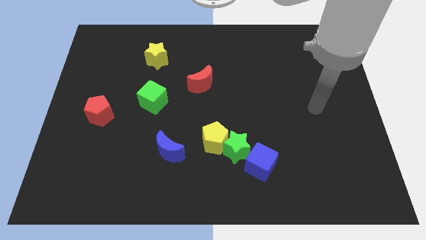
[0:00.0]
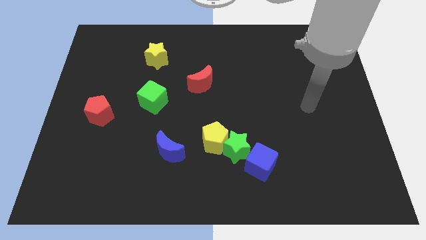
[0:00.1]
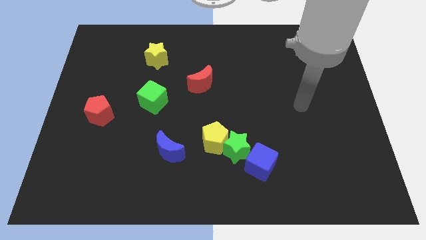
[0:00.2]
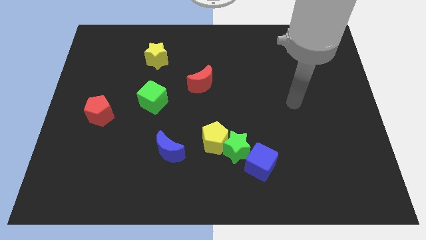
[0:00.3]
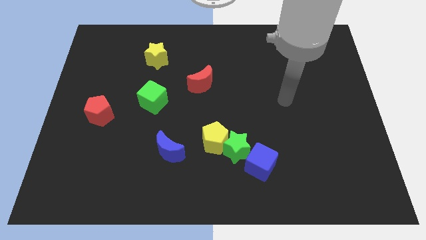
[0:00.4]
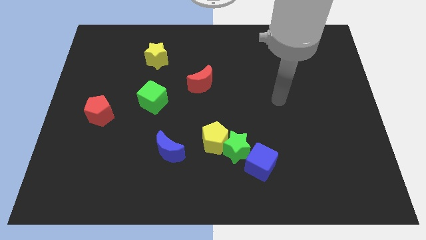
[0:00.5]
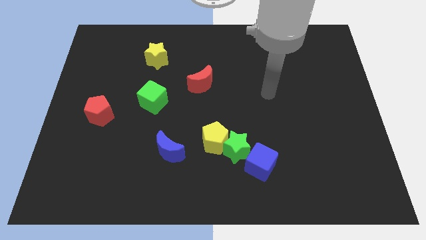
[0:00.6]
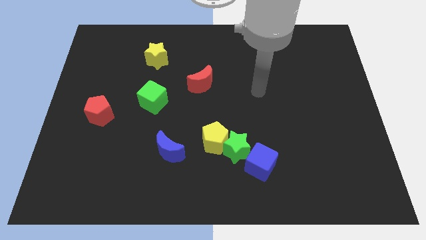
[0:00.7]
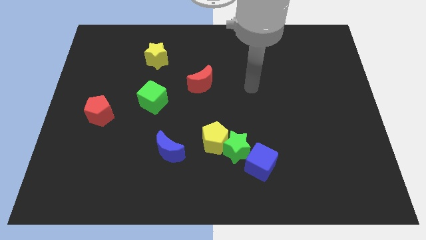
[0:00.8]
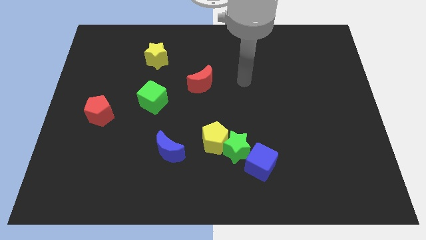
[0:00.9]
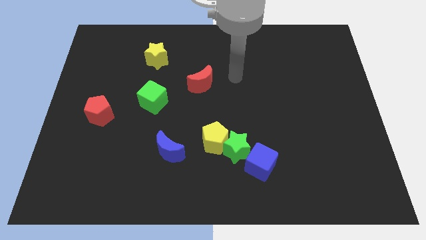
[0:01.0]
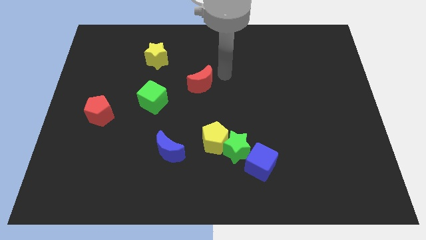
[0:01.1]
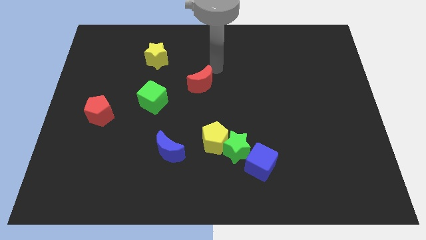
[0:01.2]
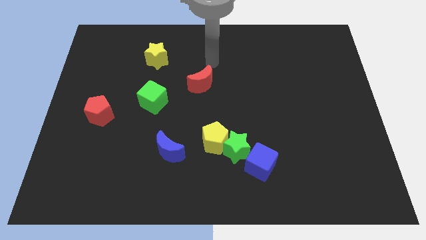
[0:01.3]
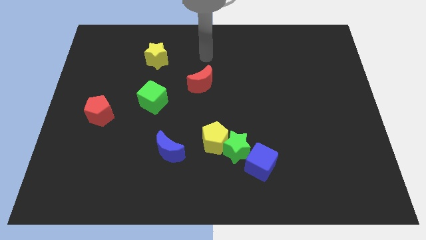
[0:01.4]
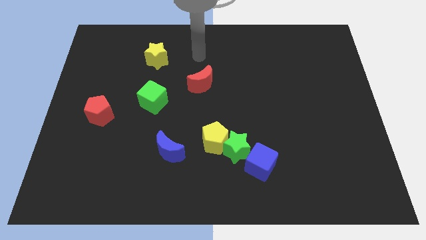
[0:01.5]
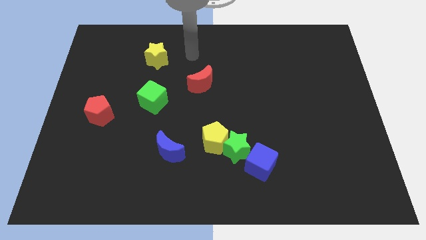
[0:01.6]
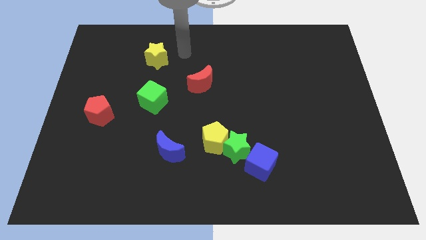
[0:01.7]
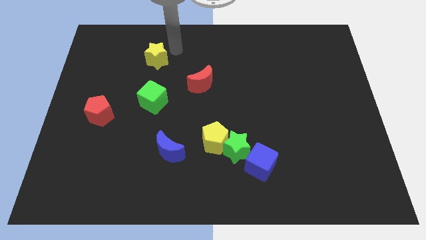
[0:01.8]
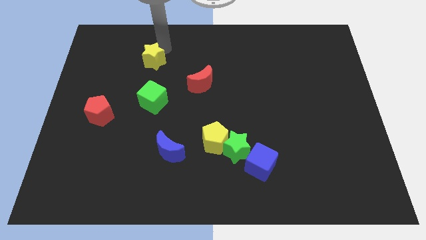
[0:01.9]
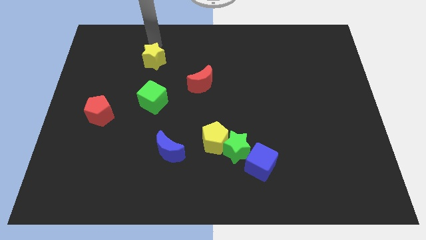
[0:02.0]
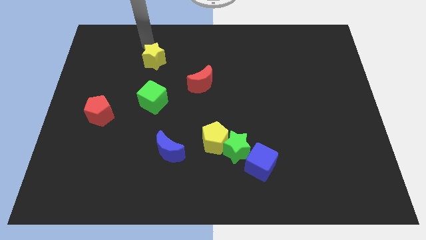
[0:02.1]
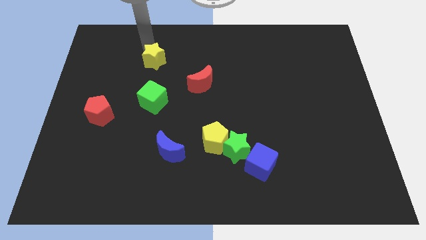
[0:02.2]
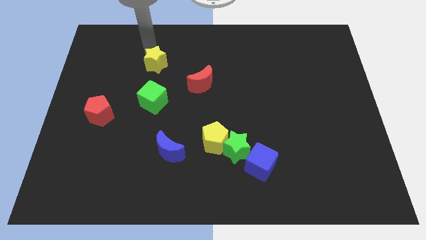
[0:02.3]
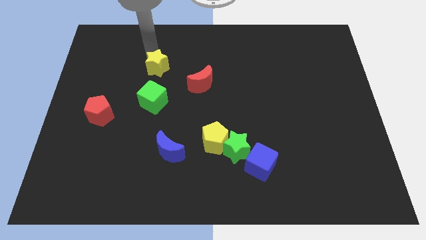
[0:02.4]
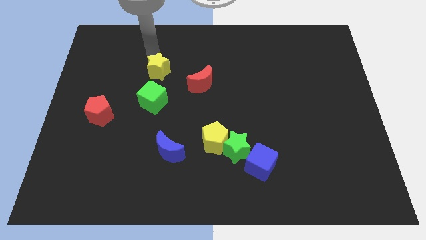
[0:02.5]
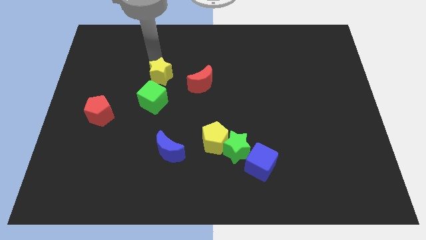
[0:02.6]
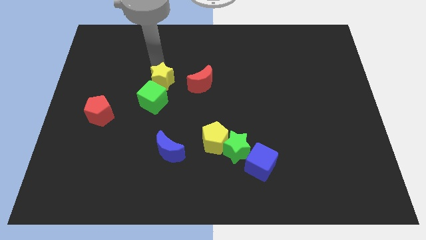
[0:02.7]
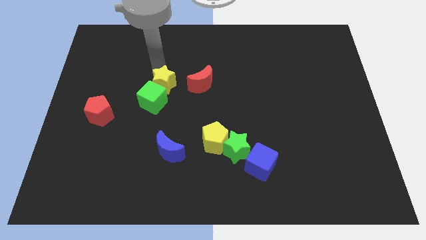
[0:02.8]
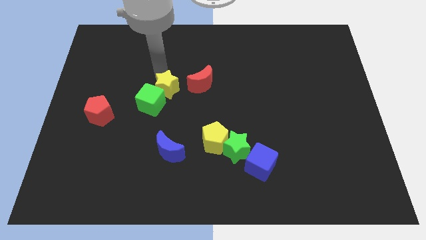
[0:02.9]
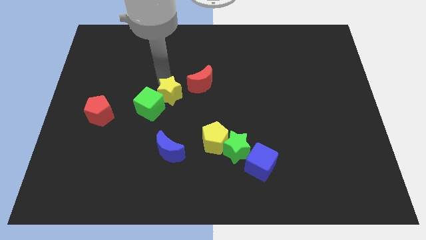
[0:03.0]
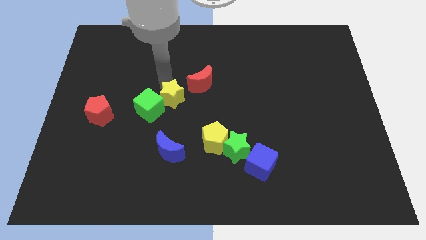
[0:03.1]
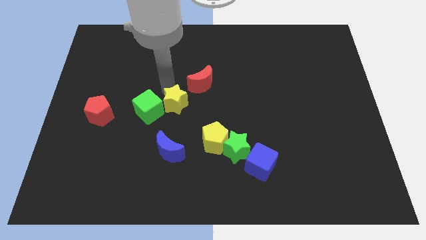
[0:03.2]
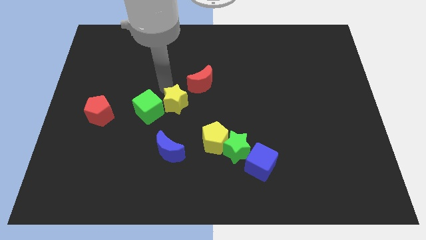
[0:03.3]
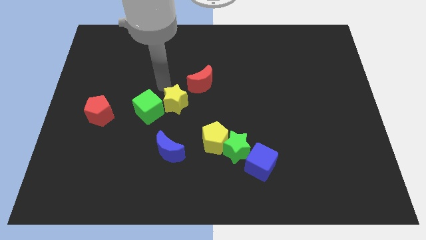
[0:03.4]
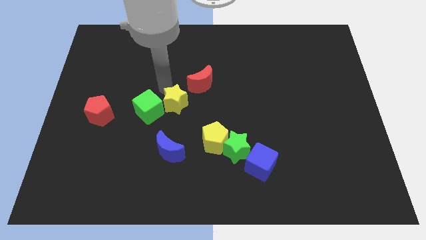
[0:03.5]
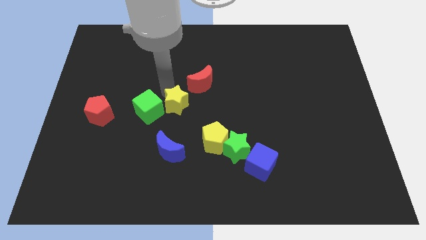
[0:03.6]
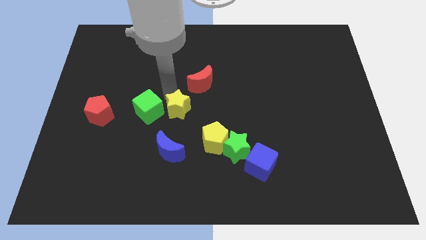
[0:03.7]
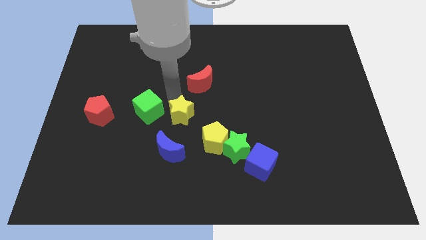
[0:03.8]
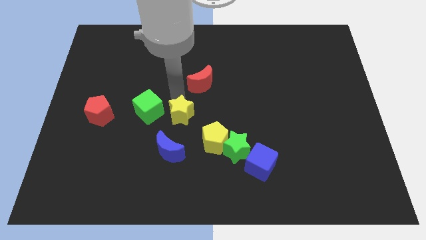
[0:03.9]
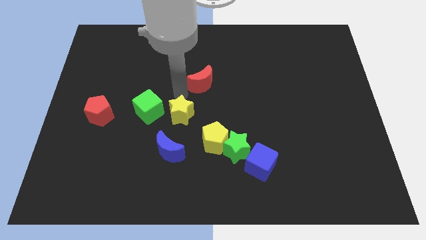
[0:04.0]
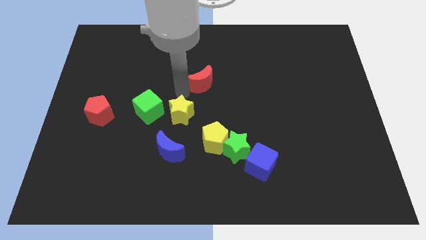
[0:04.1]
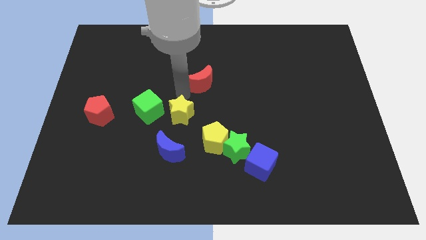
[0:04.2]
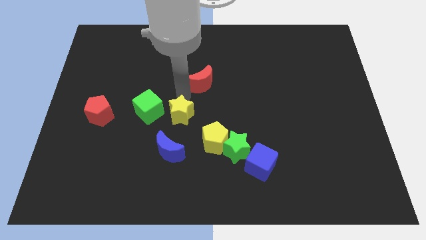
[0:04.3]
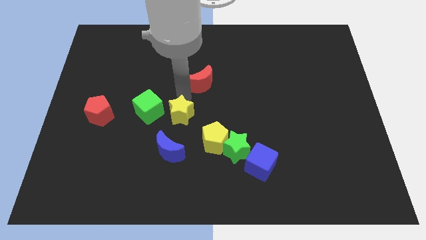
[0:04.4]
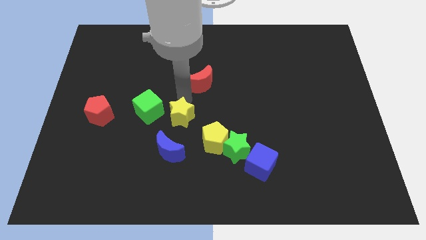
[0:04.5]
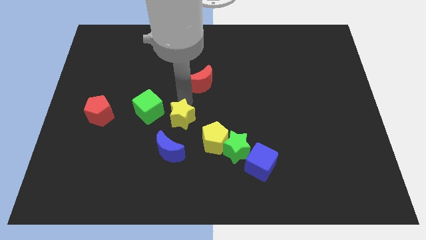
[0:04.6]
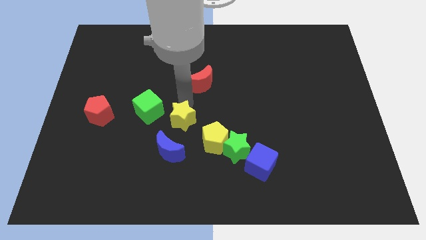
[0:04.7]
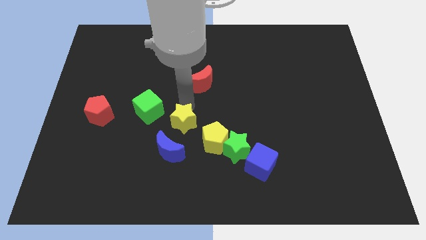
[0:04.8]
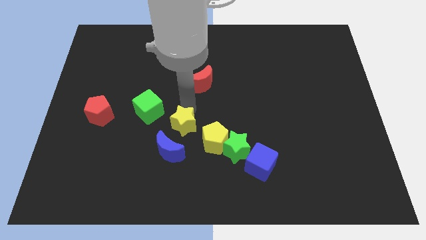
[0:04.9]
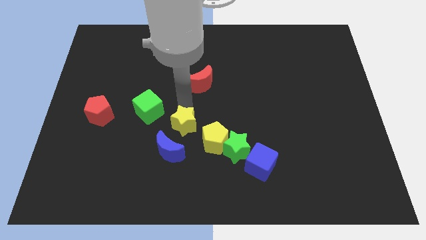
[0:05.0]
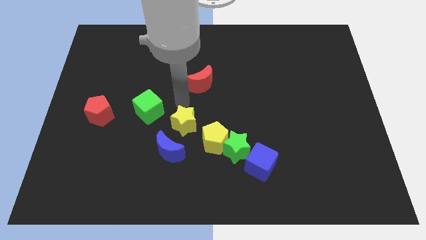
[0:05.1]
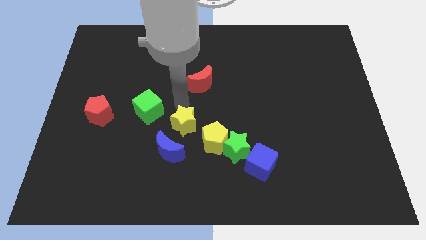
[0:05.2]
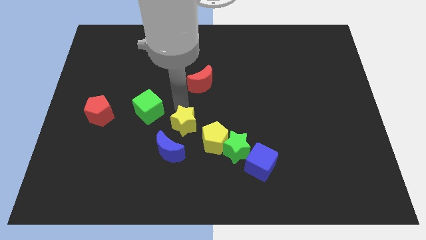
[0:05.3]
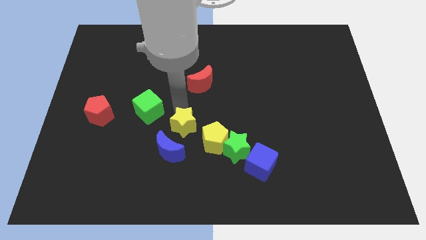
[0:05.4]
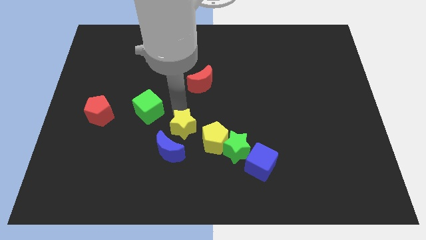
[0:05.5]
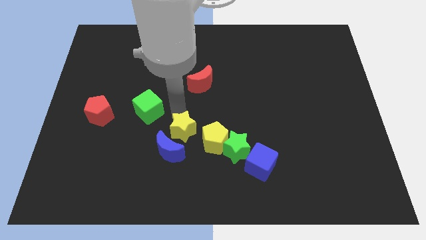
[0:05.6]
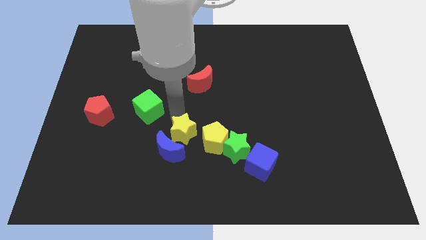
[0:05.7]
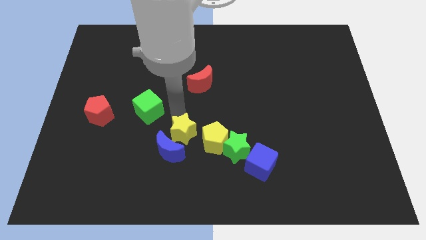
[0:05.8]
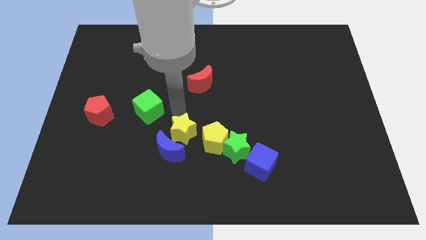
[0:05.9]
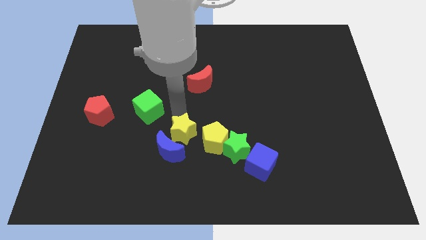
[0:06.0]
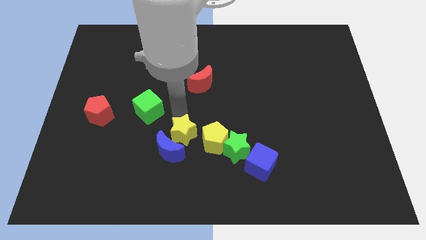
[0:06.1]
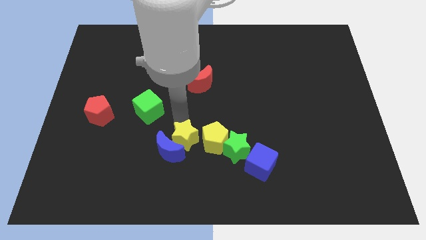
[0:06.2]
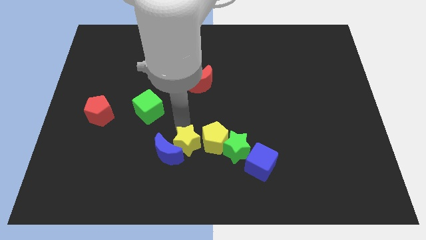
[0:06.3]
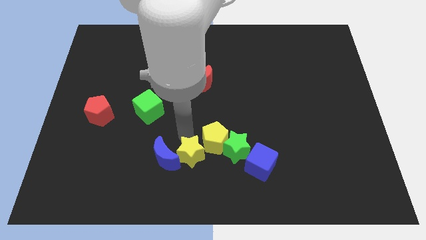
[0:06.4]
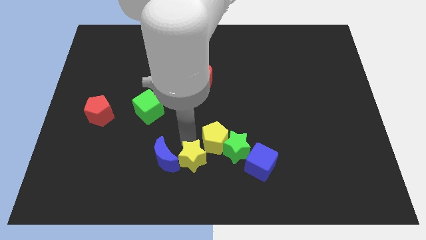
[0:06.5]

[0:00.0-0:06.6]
move the yellow star to the bottom
